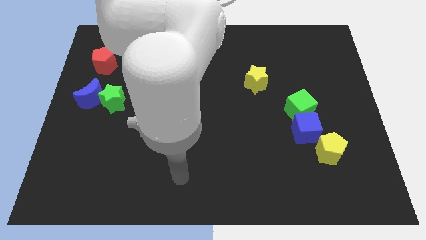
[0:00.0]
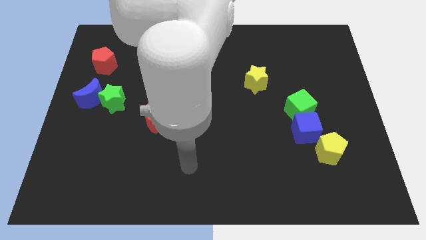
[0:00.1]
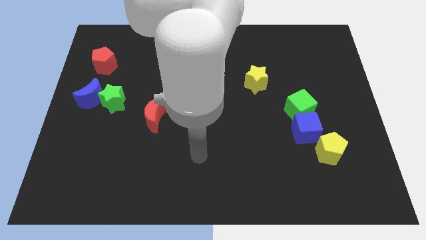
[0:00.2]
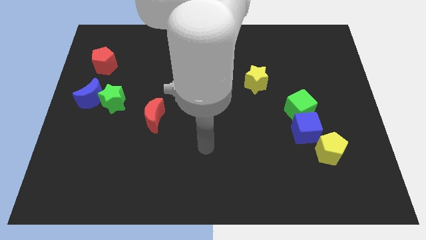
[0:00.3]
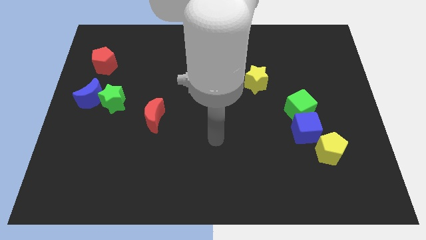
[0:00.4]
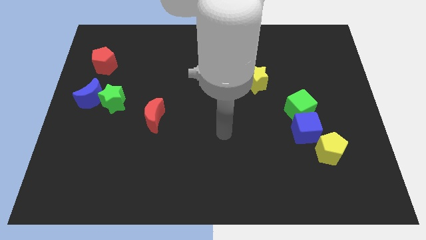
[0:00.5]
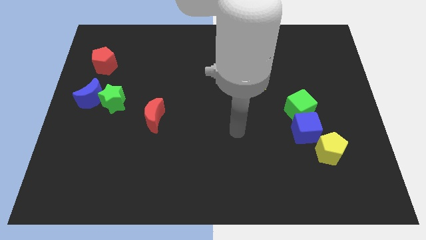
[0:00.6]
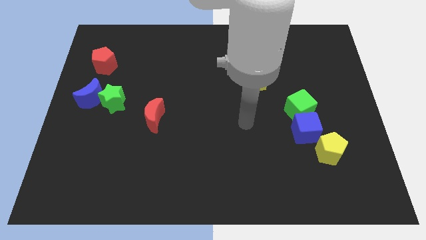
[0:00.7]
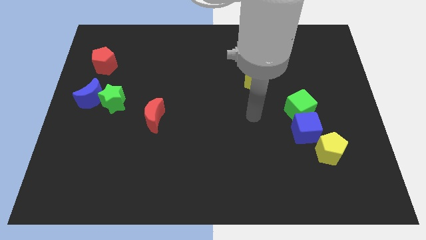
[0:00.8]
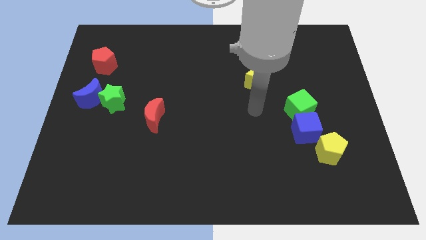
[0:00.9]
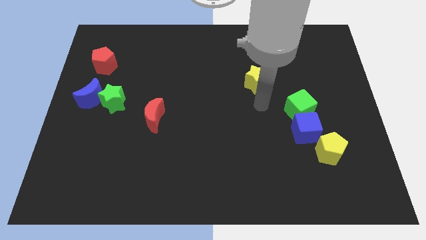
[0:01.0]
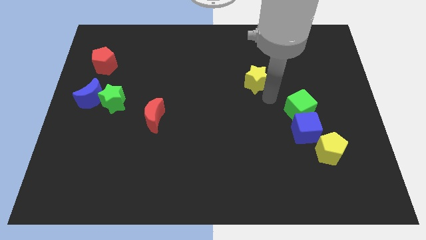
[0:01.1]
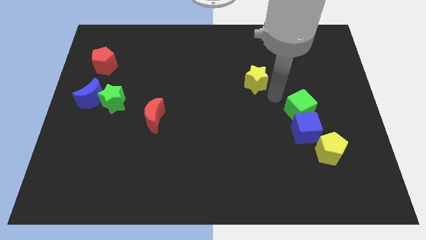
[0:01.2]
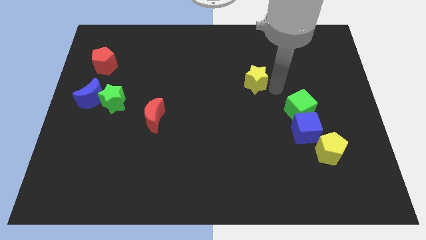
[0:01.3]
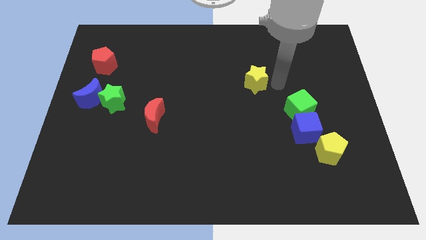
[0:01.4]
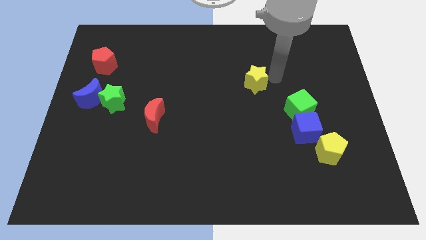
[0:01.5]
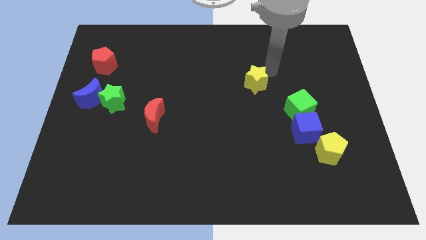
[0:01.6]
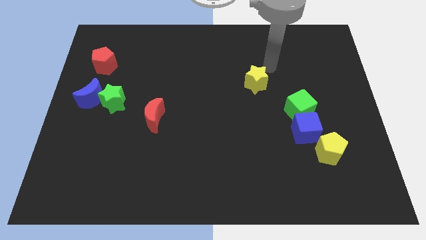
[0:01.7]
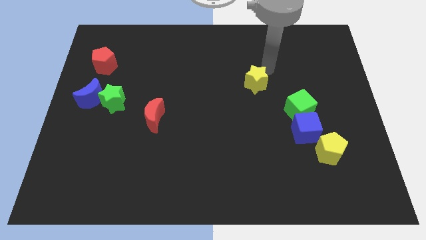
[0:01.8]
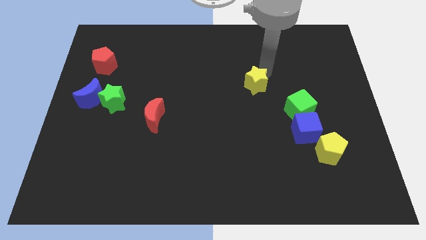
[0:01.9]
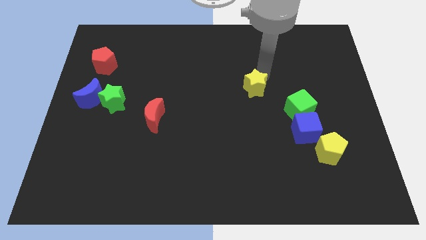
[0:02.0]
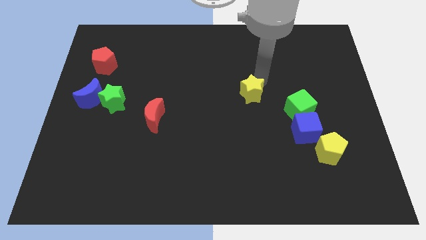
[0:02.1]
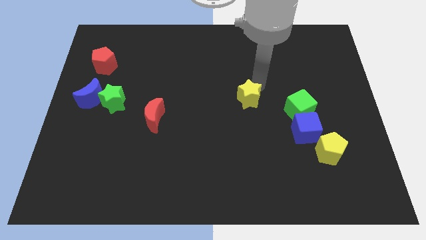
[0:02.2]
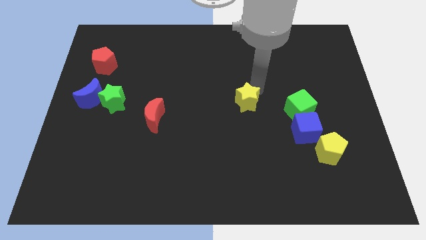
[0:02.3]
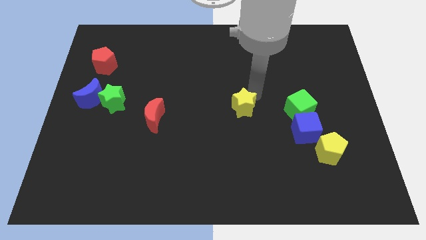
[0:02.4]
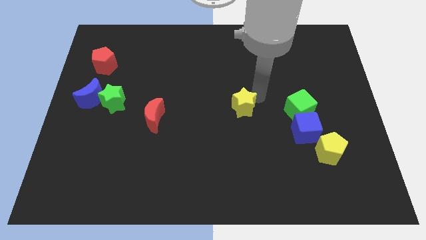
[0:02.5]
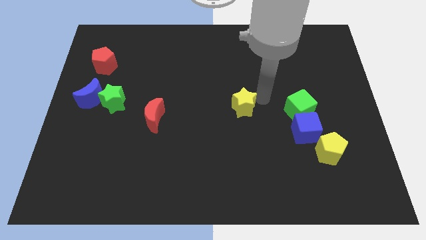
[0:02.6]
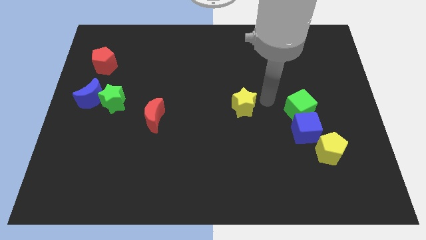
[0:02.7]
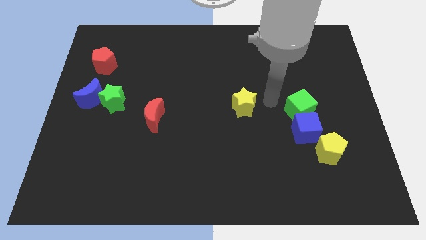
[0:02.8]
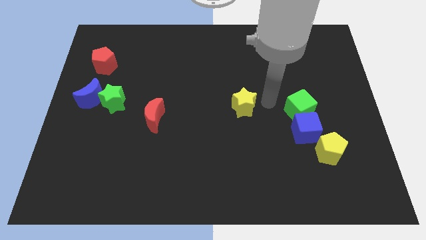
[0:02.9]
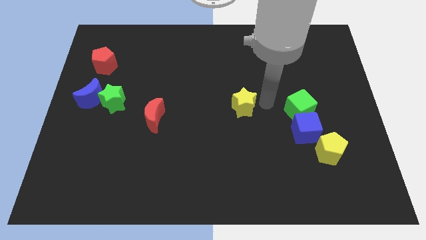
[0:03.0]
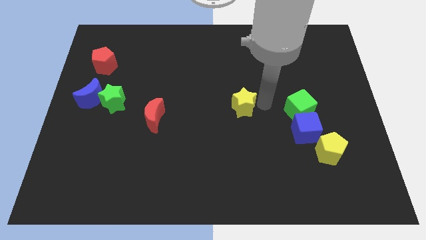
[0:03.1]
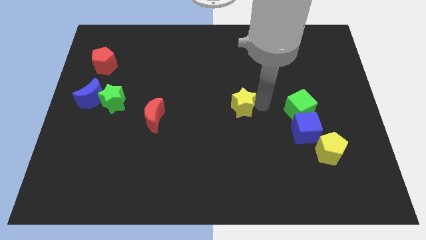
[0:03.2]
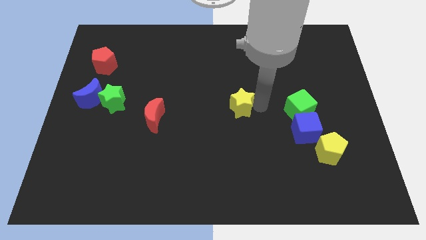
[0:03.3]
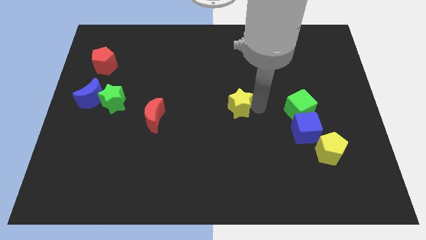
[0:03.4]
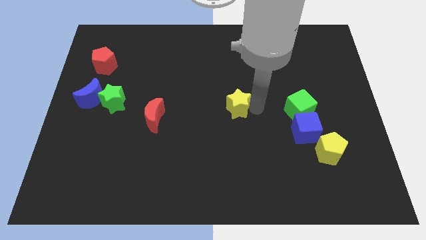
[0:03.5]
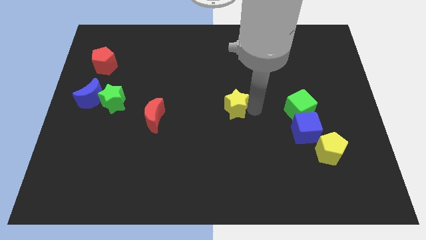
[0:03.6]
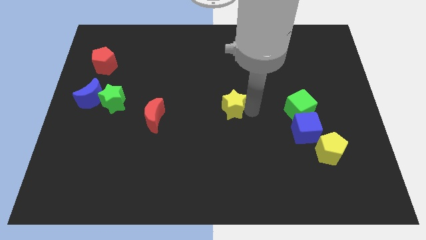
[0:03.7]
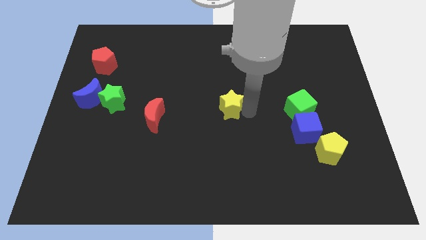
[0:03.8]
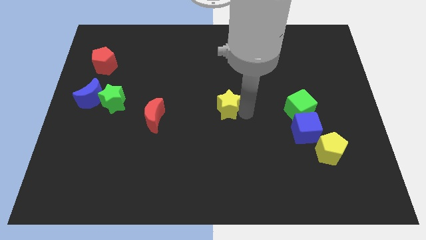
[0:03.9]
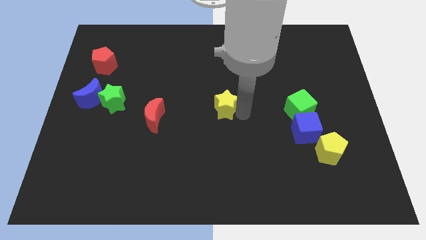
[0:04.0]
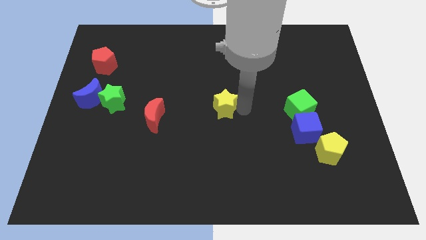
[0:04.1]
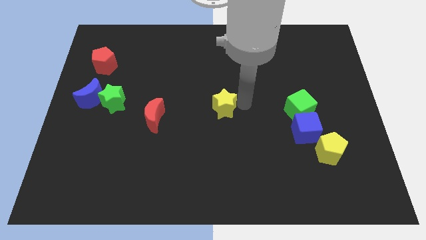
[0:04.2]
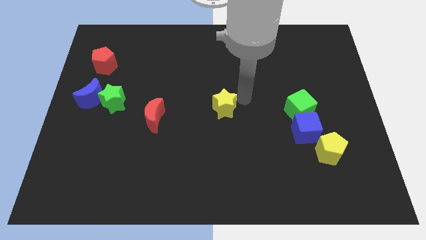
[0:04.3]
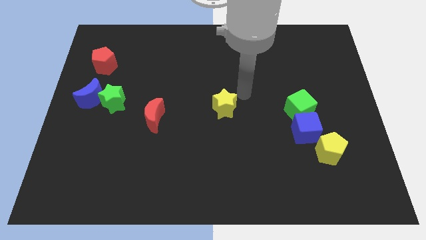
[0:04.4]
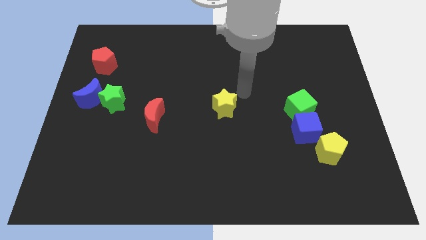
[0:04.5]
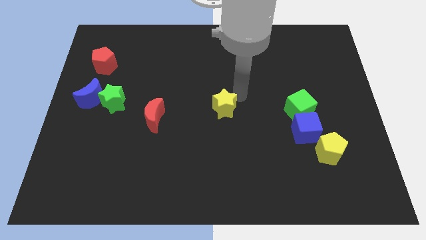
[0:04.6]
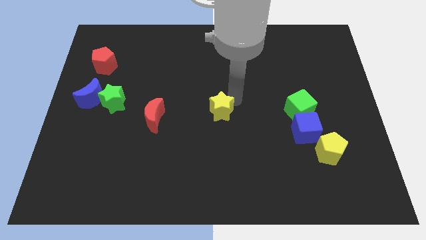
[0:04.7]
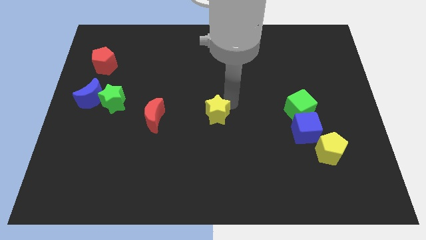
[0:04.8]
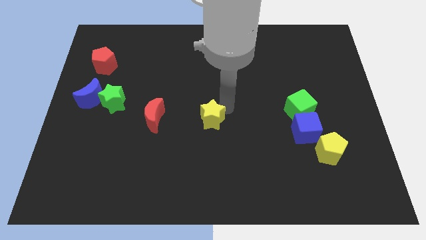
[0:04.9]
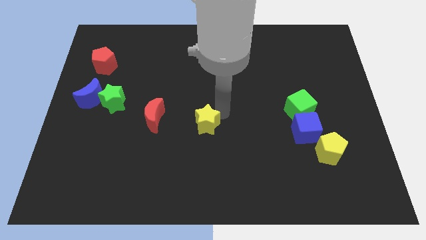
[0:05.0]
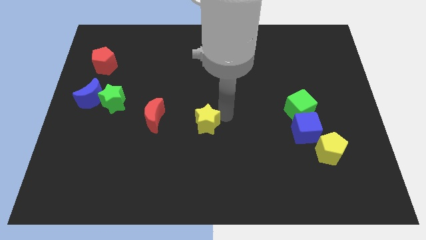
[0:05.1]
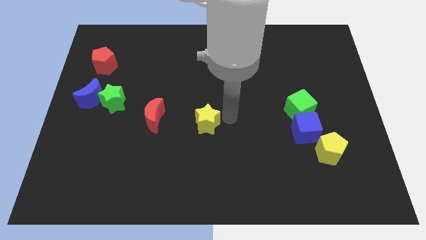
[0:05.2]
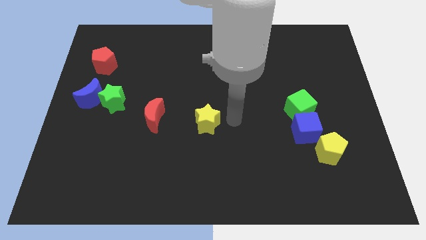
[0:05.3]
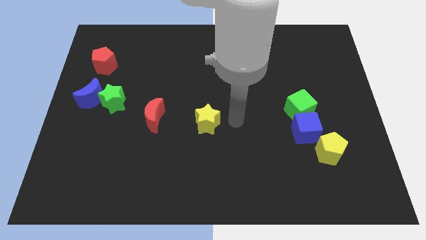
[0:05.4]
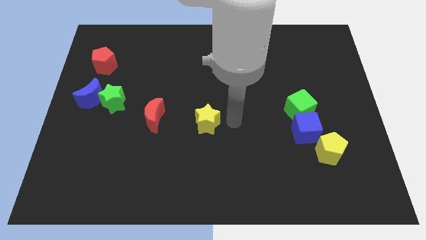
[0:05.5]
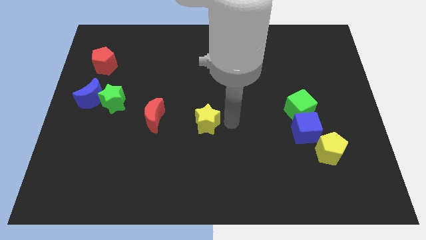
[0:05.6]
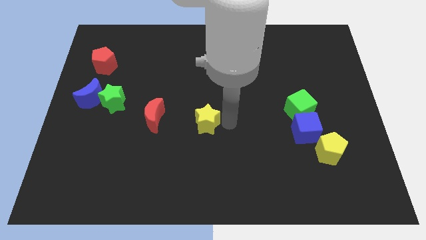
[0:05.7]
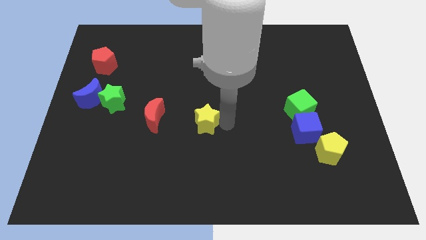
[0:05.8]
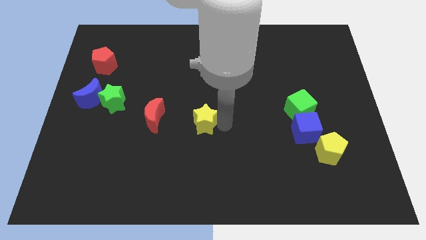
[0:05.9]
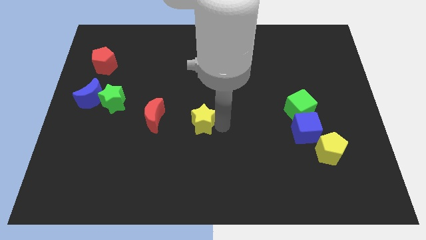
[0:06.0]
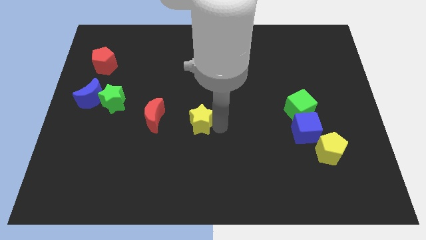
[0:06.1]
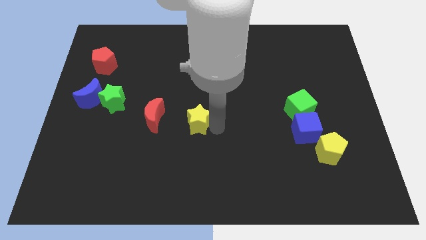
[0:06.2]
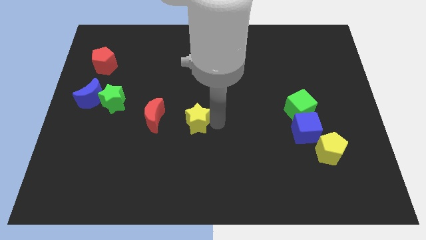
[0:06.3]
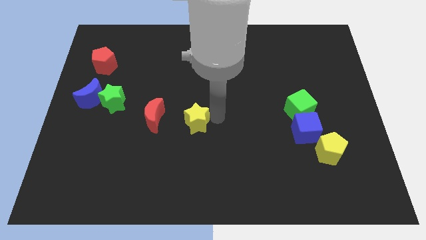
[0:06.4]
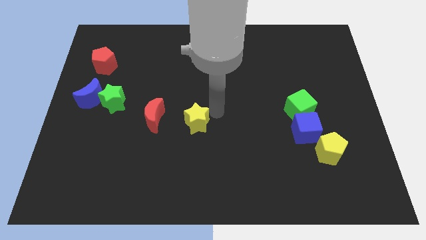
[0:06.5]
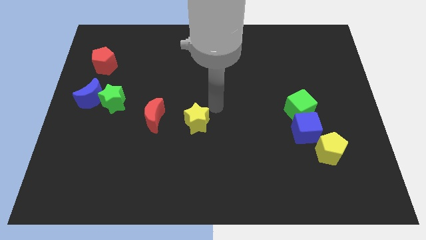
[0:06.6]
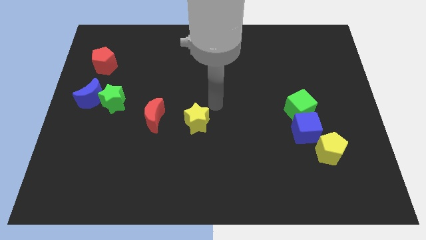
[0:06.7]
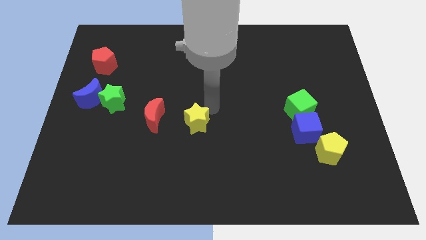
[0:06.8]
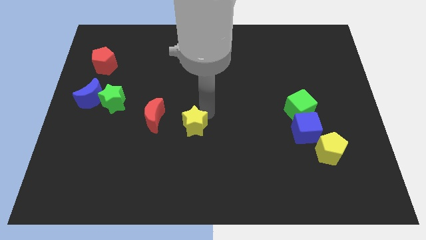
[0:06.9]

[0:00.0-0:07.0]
move the yellow star downwards and left diagonally

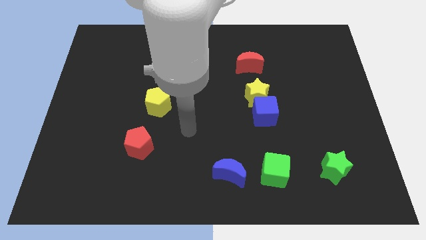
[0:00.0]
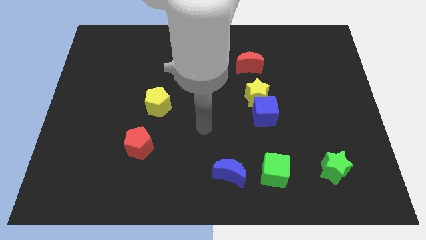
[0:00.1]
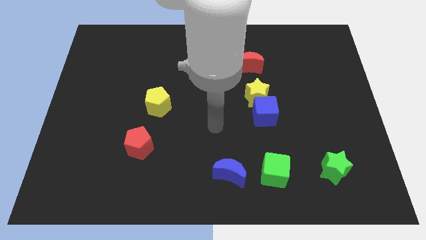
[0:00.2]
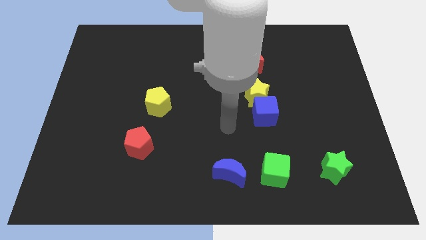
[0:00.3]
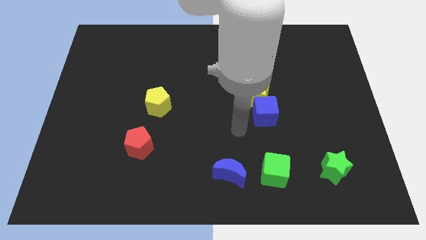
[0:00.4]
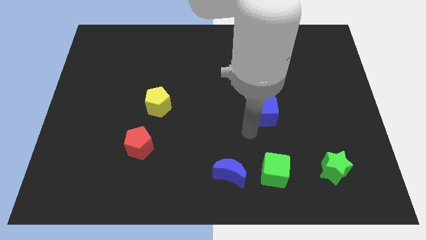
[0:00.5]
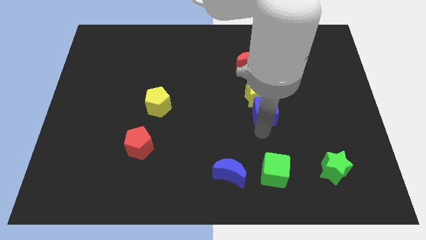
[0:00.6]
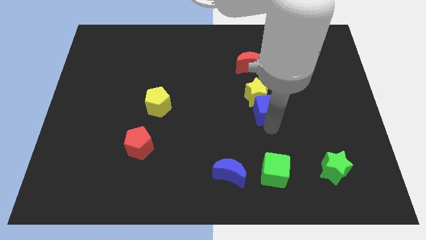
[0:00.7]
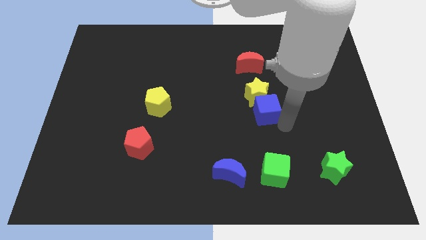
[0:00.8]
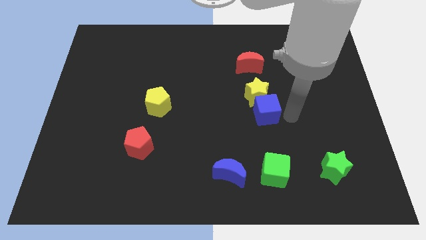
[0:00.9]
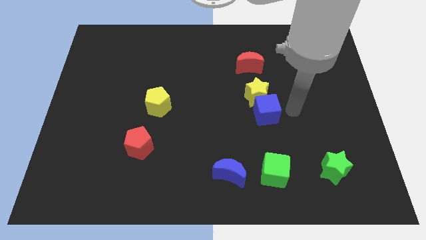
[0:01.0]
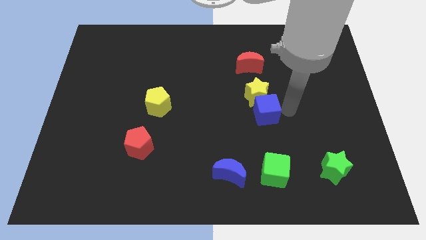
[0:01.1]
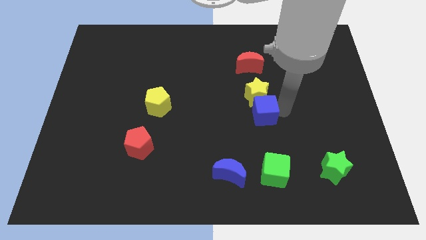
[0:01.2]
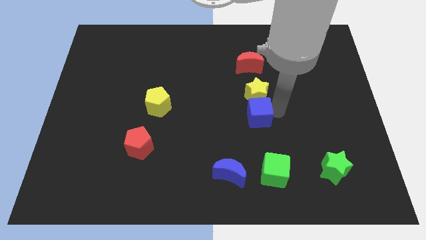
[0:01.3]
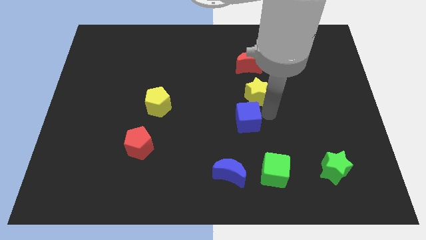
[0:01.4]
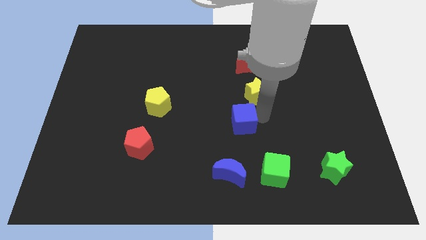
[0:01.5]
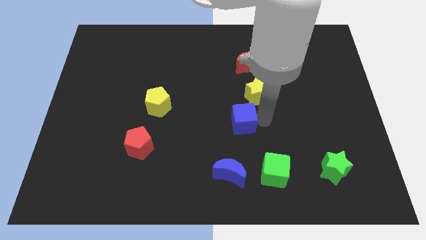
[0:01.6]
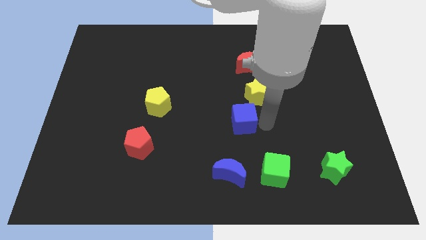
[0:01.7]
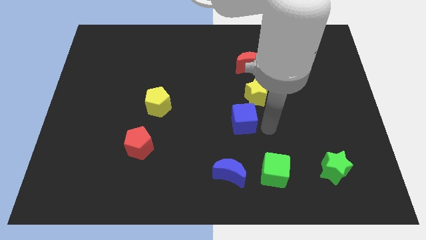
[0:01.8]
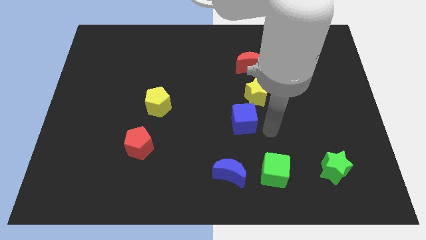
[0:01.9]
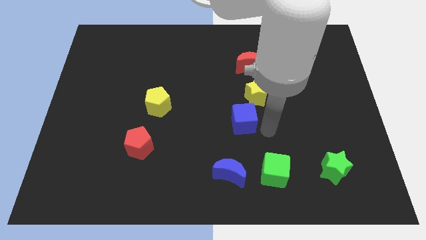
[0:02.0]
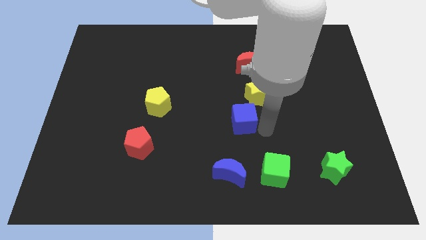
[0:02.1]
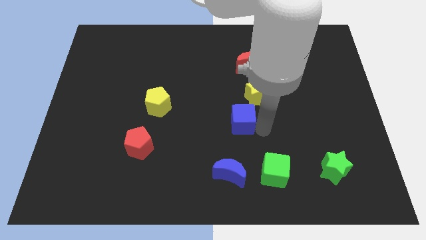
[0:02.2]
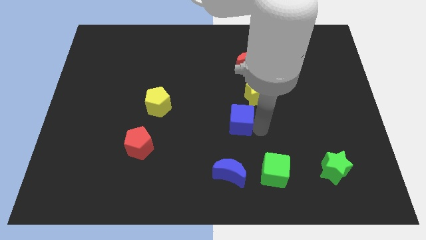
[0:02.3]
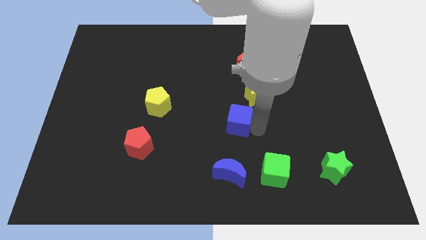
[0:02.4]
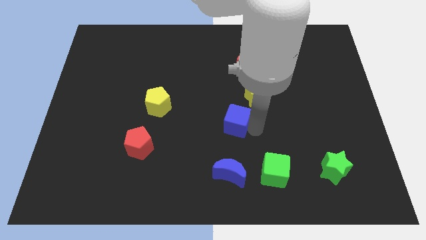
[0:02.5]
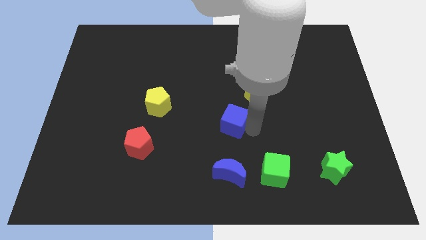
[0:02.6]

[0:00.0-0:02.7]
slightly slide the blue cube left
